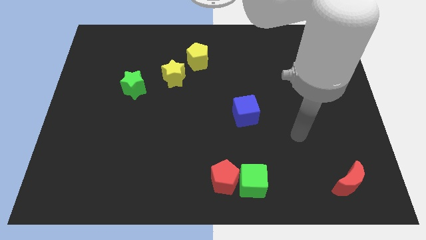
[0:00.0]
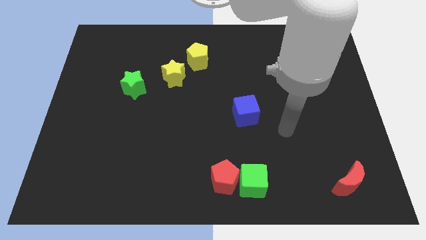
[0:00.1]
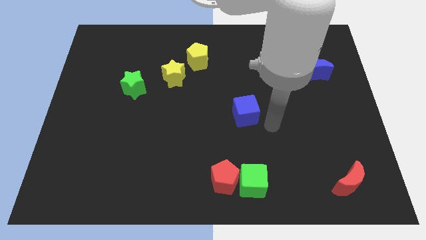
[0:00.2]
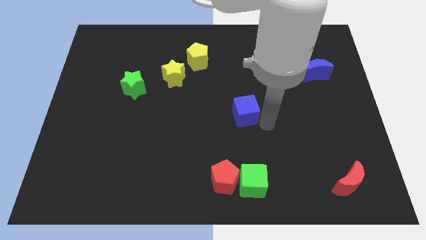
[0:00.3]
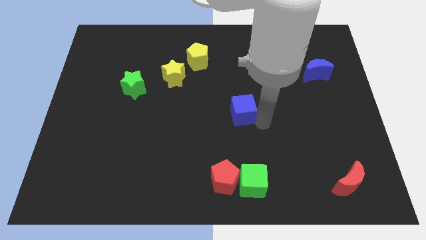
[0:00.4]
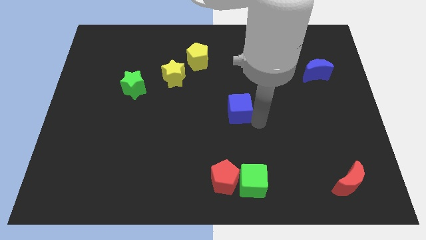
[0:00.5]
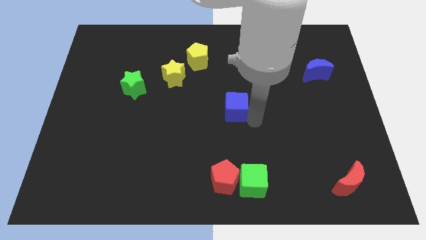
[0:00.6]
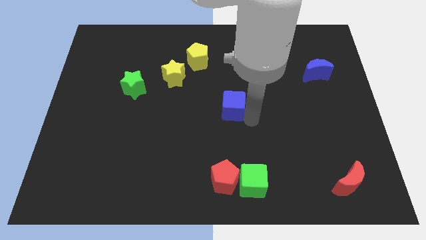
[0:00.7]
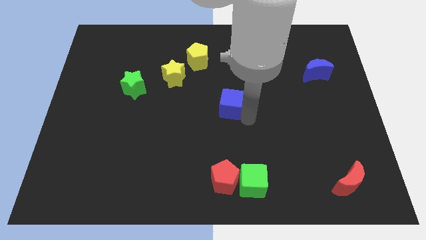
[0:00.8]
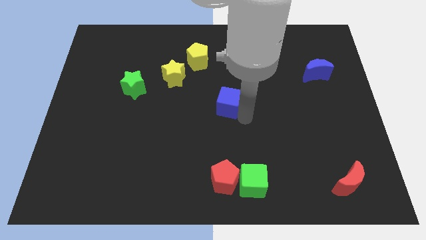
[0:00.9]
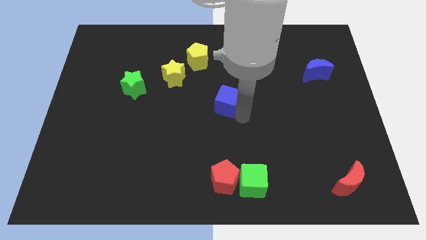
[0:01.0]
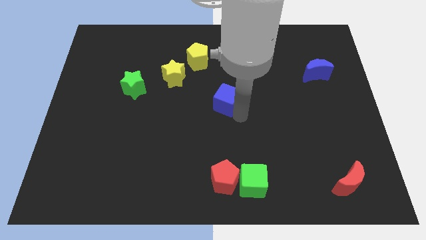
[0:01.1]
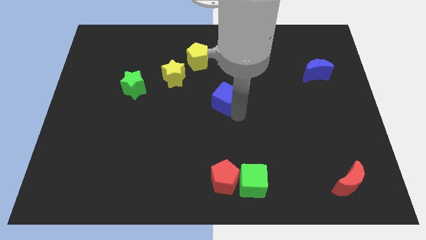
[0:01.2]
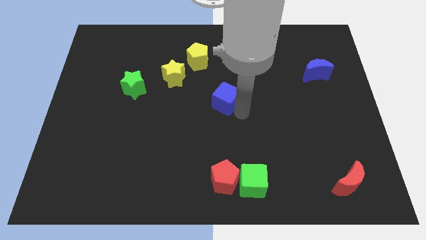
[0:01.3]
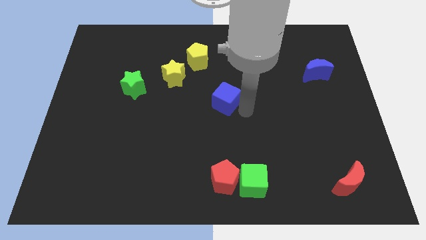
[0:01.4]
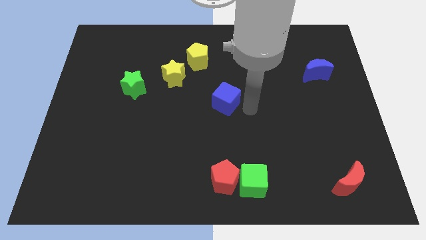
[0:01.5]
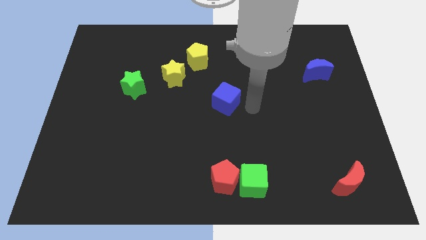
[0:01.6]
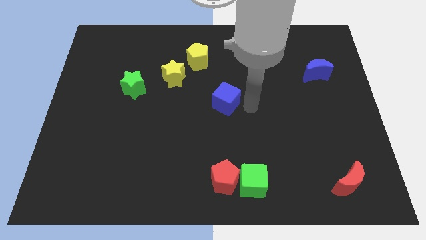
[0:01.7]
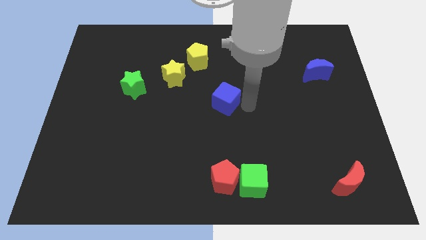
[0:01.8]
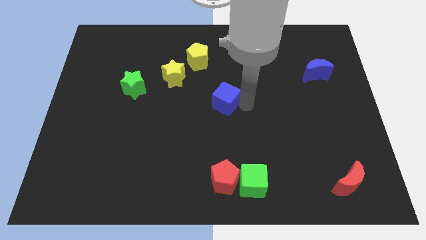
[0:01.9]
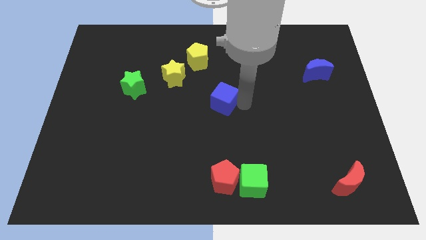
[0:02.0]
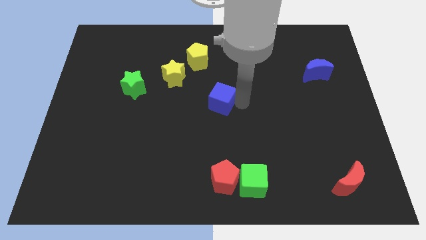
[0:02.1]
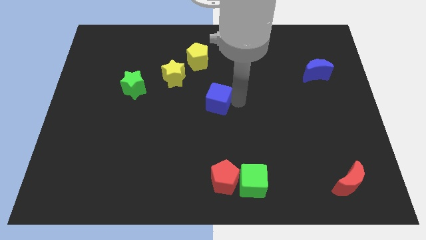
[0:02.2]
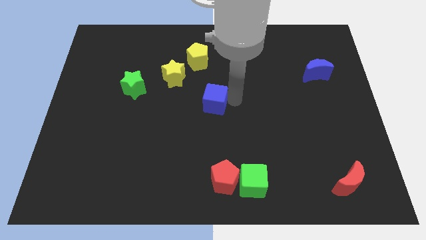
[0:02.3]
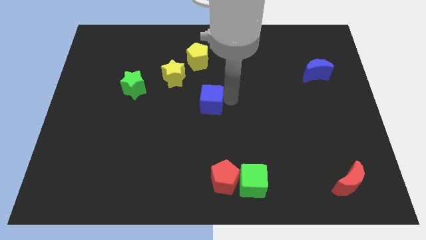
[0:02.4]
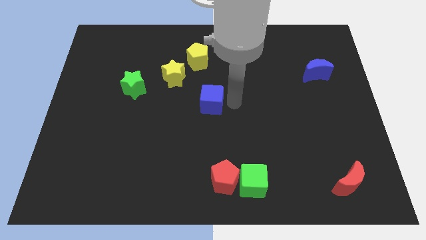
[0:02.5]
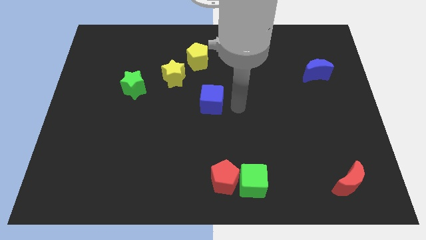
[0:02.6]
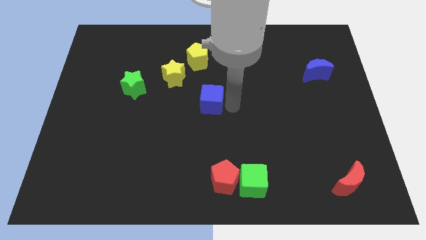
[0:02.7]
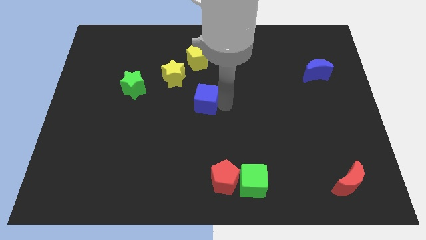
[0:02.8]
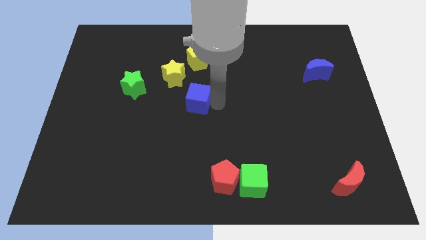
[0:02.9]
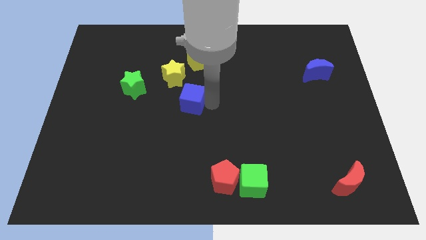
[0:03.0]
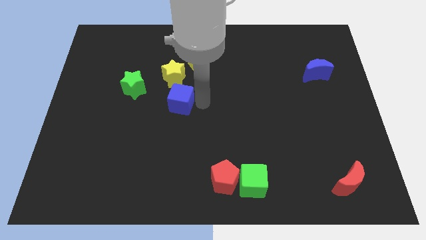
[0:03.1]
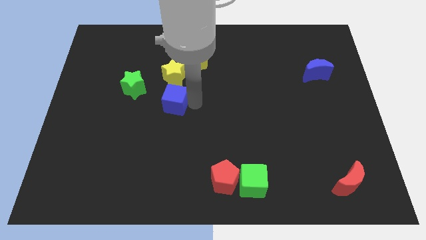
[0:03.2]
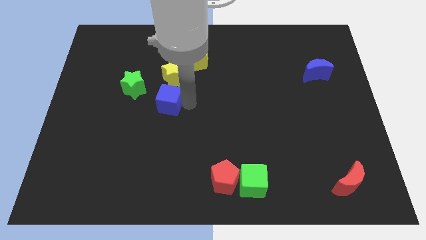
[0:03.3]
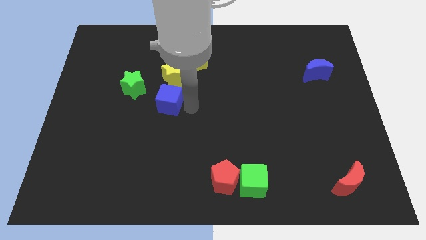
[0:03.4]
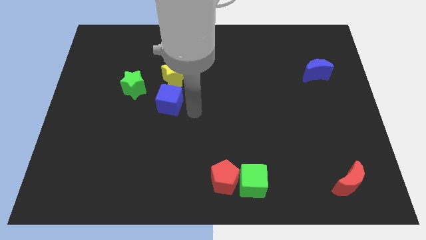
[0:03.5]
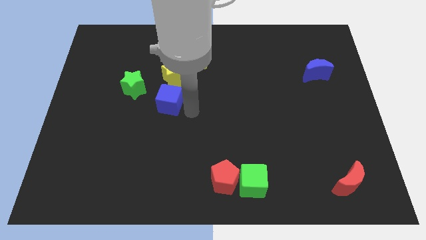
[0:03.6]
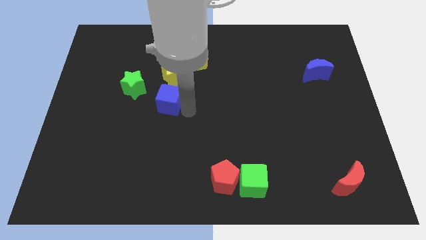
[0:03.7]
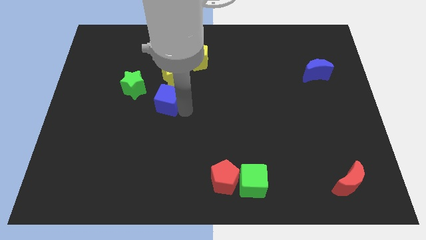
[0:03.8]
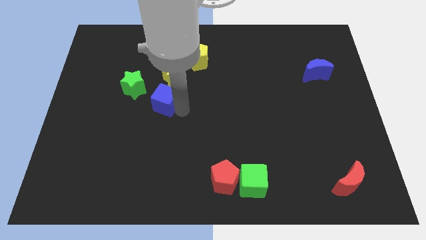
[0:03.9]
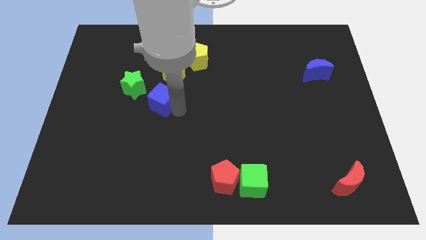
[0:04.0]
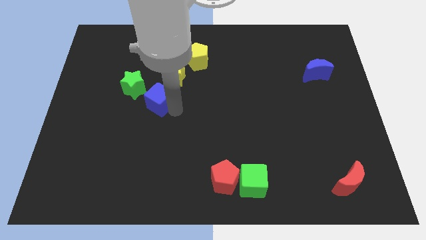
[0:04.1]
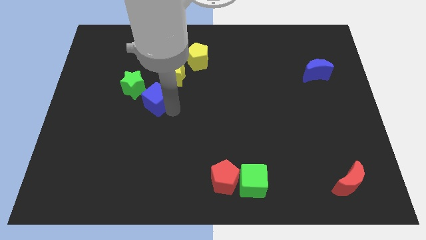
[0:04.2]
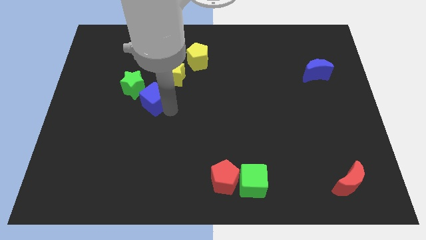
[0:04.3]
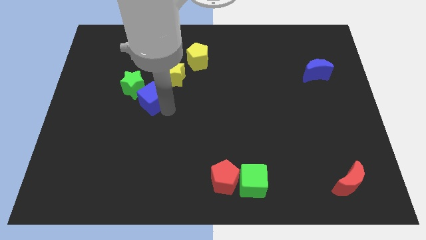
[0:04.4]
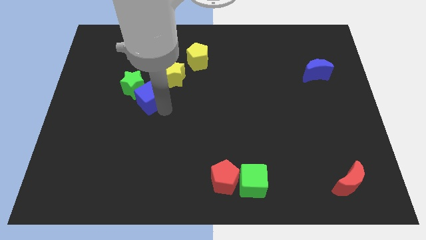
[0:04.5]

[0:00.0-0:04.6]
push the blue cube towards the green star

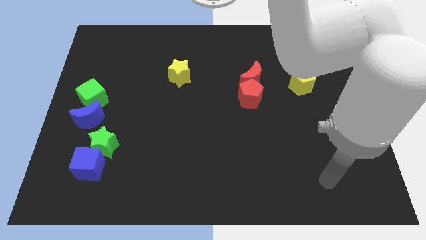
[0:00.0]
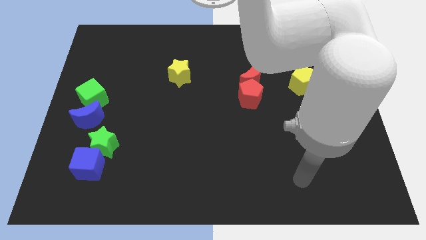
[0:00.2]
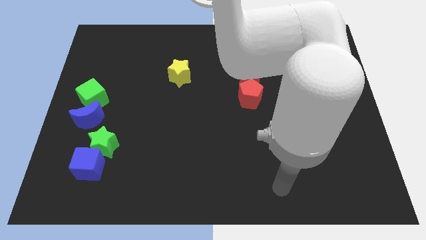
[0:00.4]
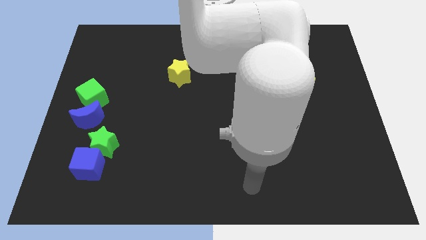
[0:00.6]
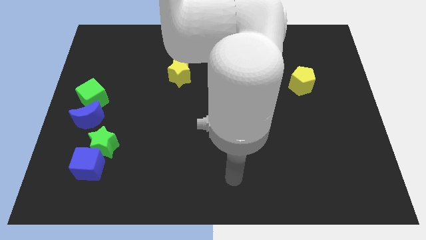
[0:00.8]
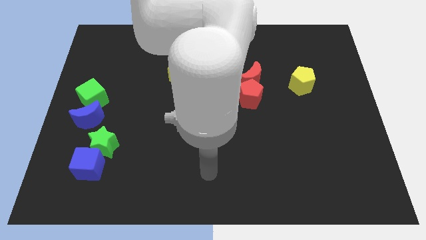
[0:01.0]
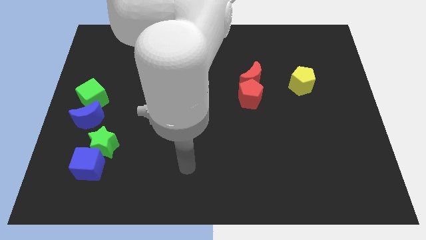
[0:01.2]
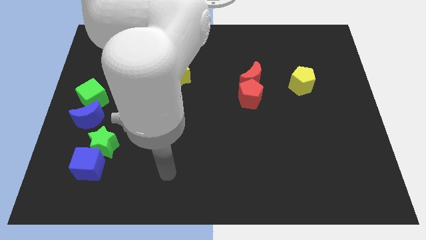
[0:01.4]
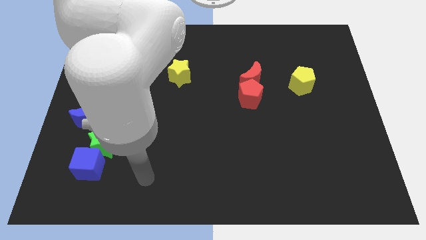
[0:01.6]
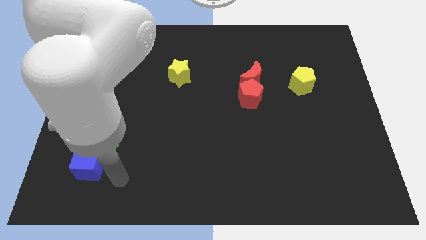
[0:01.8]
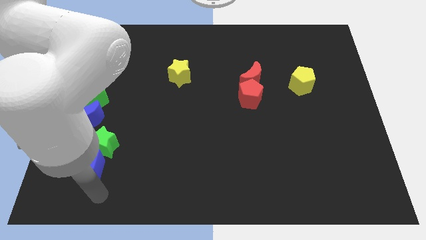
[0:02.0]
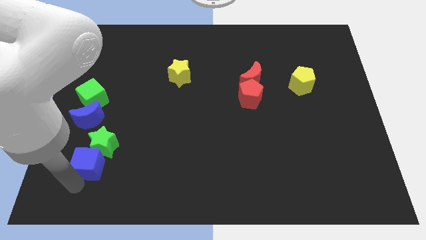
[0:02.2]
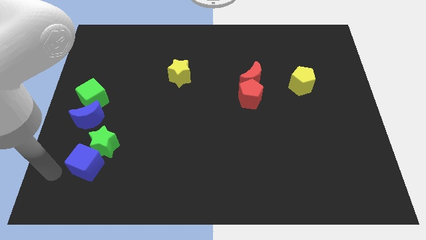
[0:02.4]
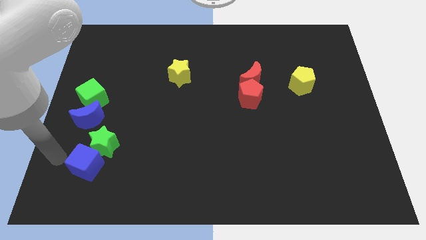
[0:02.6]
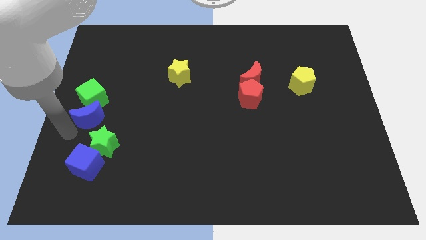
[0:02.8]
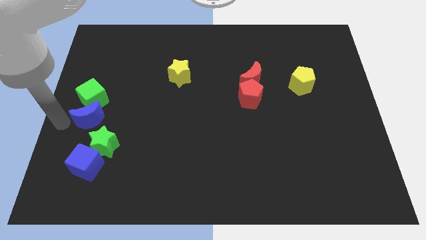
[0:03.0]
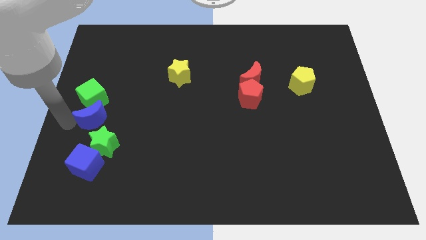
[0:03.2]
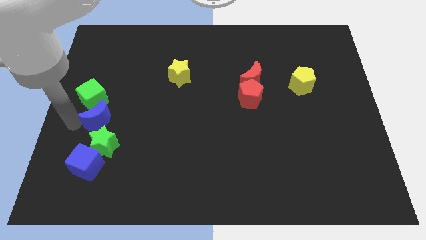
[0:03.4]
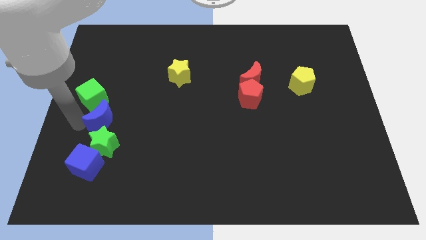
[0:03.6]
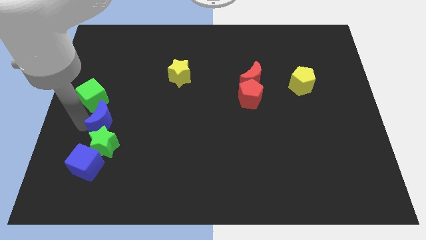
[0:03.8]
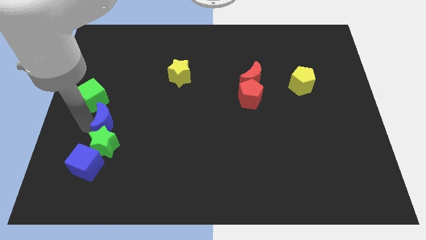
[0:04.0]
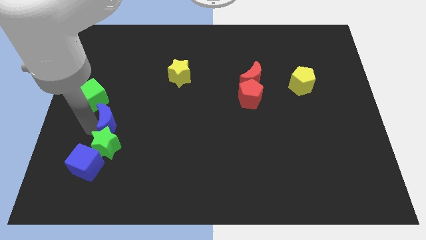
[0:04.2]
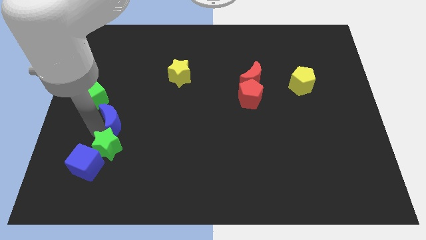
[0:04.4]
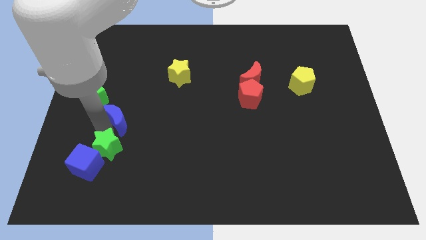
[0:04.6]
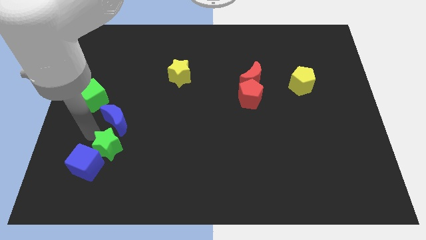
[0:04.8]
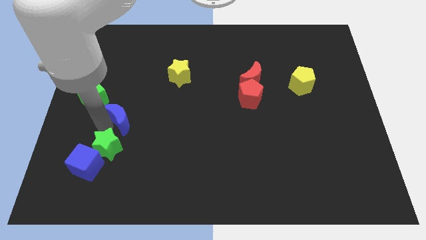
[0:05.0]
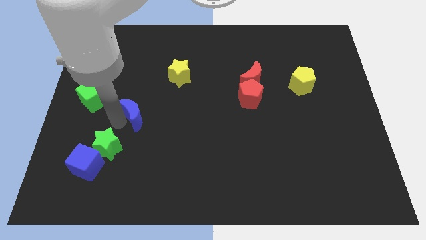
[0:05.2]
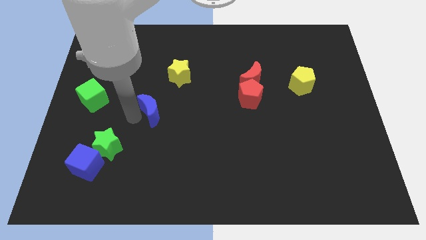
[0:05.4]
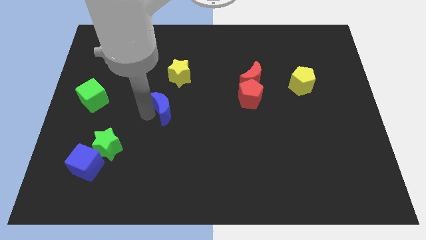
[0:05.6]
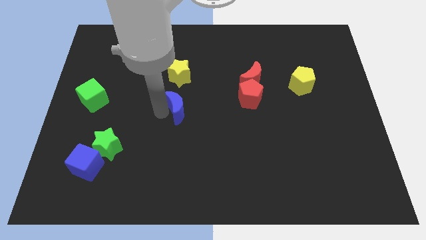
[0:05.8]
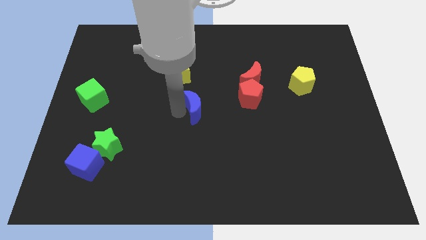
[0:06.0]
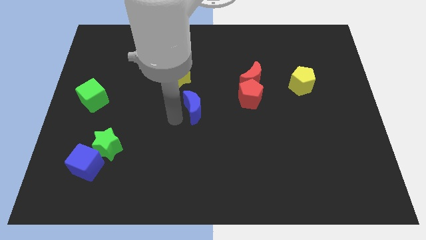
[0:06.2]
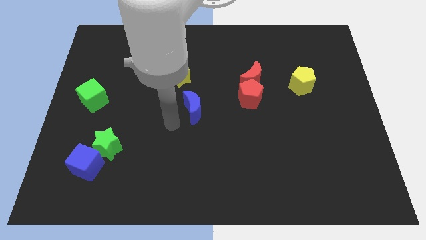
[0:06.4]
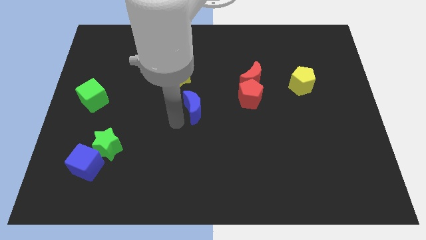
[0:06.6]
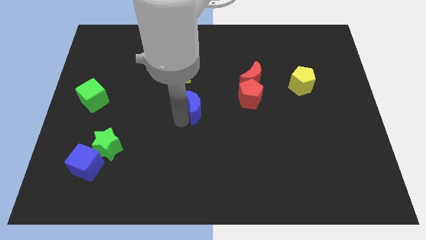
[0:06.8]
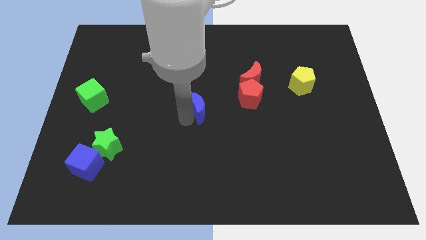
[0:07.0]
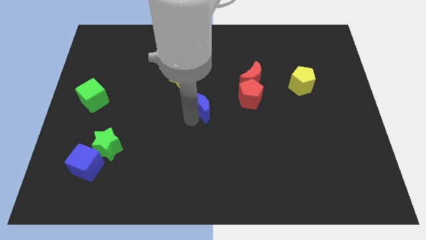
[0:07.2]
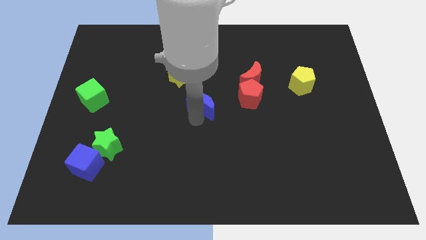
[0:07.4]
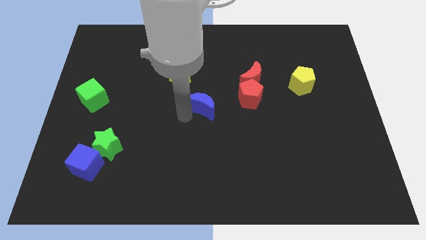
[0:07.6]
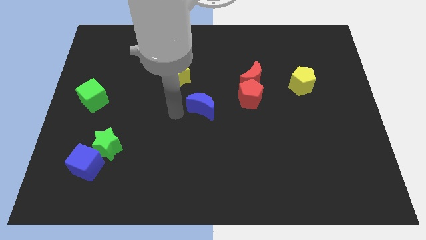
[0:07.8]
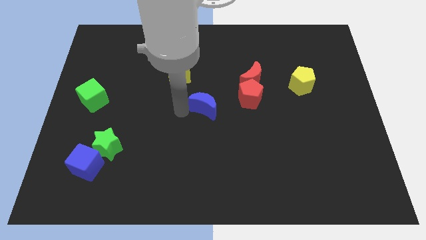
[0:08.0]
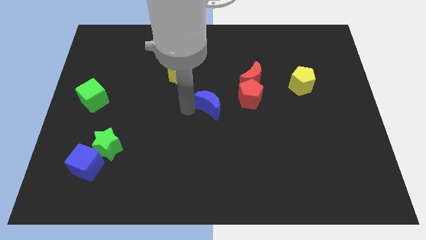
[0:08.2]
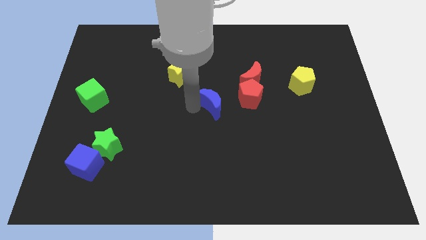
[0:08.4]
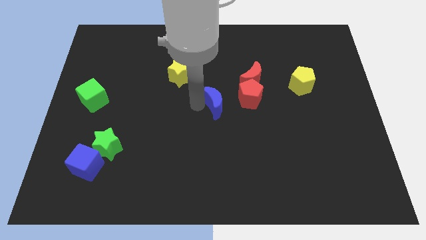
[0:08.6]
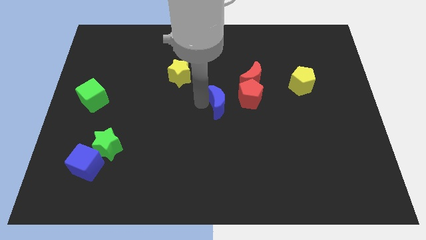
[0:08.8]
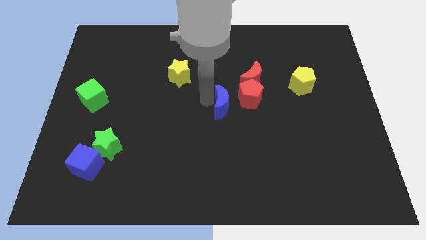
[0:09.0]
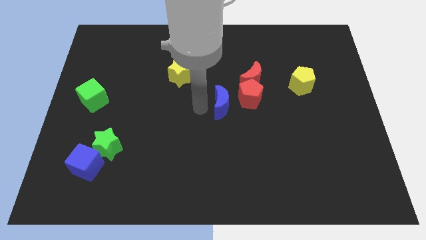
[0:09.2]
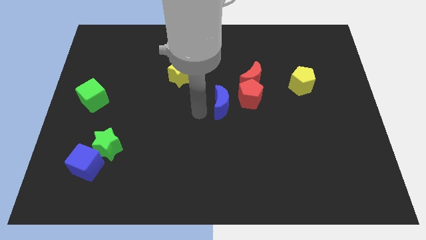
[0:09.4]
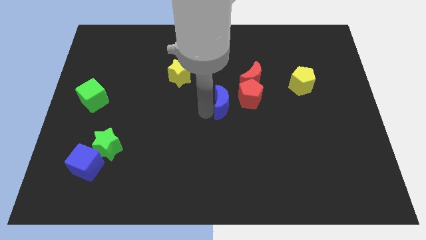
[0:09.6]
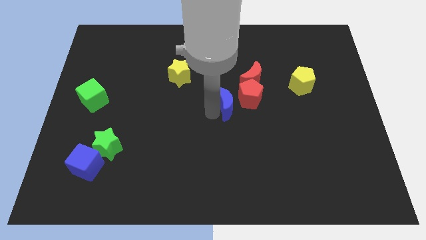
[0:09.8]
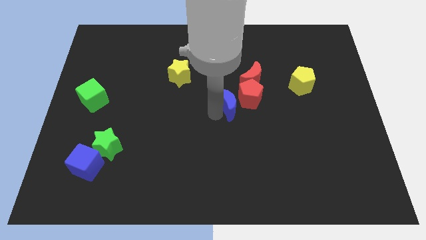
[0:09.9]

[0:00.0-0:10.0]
put the blue moon to the red pentagon
